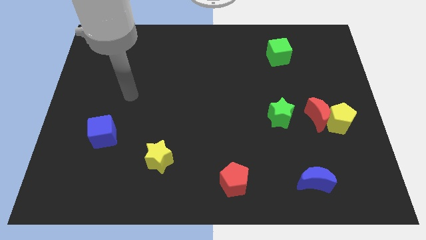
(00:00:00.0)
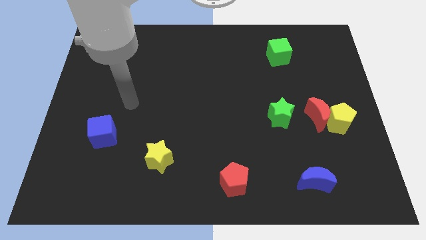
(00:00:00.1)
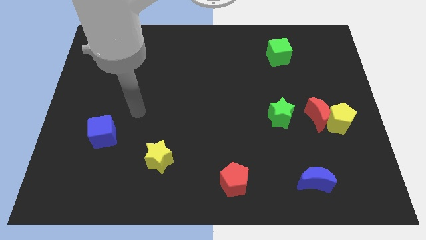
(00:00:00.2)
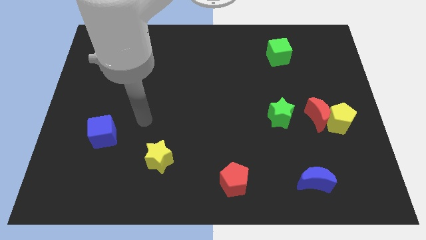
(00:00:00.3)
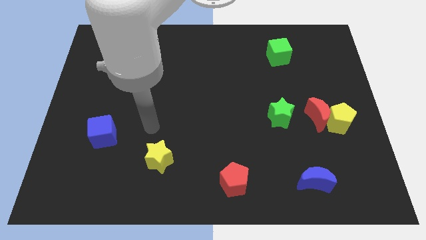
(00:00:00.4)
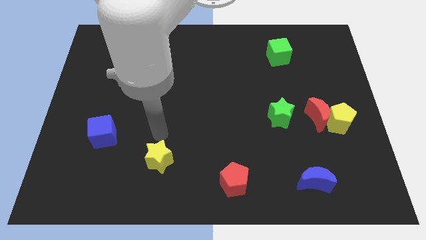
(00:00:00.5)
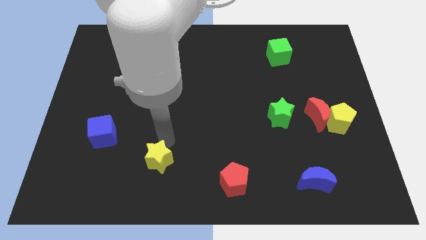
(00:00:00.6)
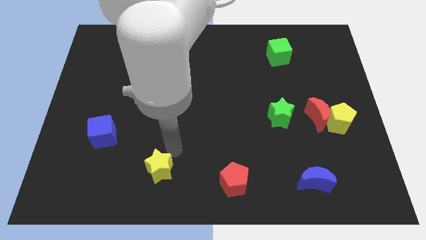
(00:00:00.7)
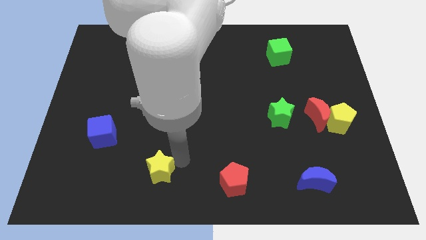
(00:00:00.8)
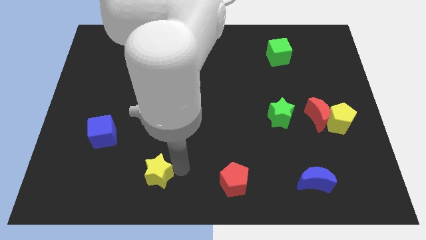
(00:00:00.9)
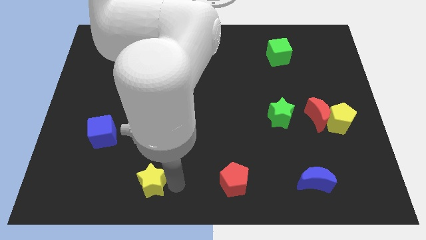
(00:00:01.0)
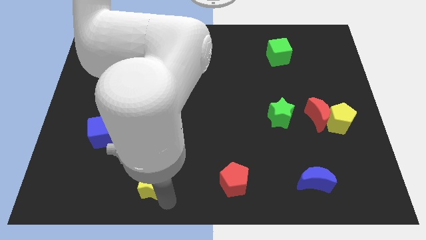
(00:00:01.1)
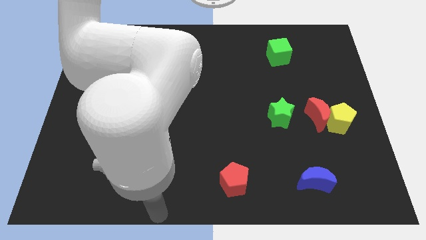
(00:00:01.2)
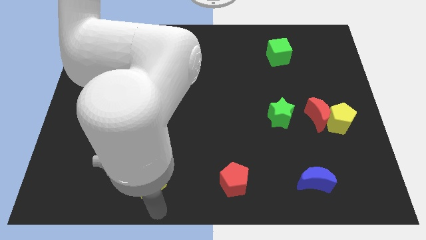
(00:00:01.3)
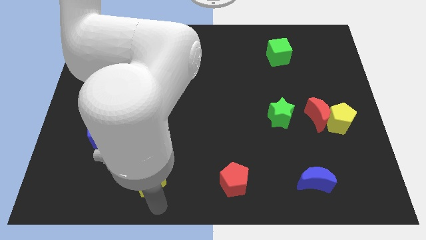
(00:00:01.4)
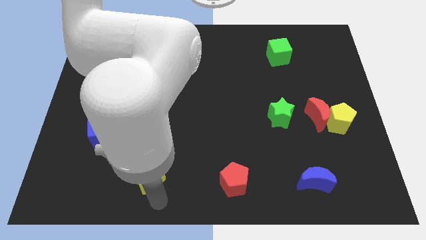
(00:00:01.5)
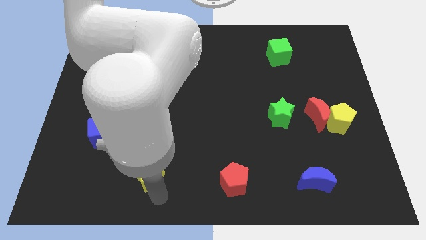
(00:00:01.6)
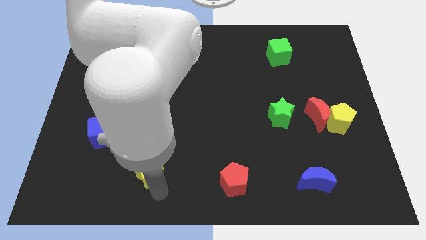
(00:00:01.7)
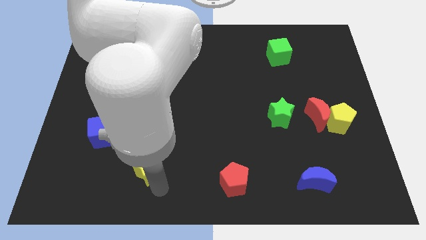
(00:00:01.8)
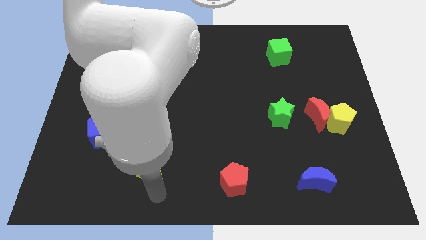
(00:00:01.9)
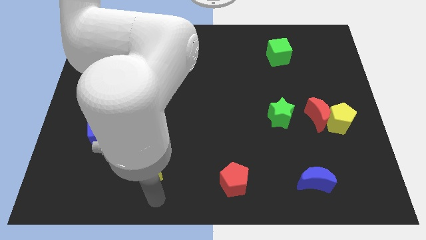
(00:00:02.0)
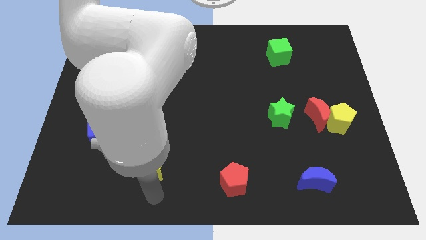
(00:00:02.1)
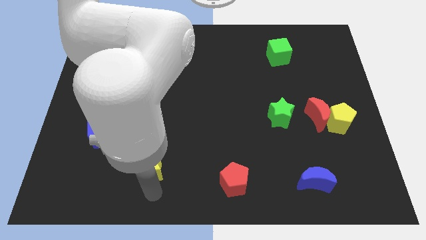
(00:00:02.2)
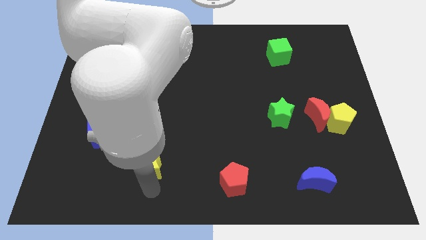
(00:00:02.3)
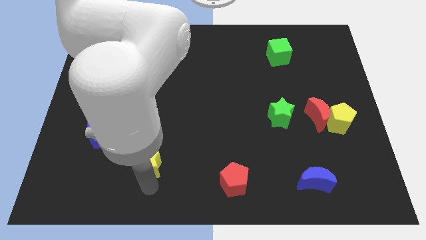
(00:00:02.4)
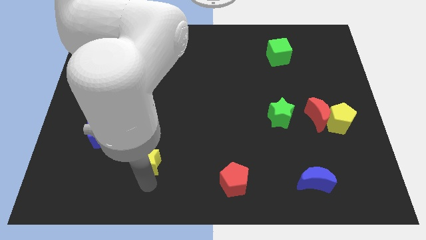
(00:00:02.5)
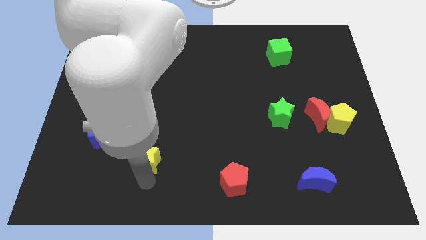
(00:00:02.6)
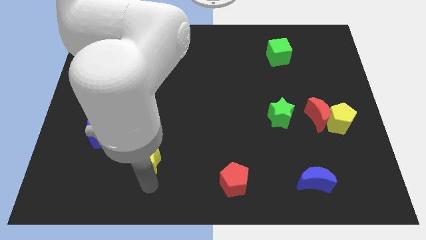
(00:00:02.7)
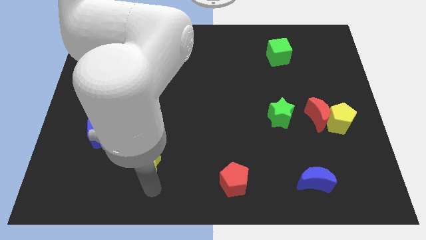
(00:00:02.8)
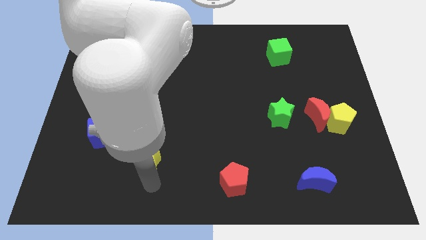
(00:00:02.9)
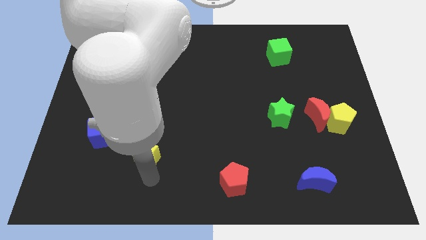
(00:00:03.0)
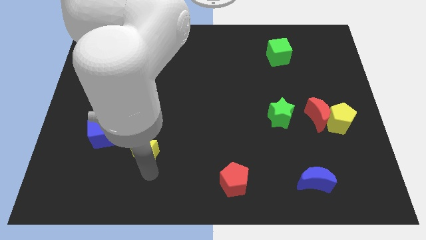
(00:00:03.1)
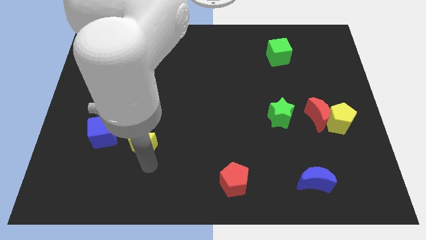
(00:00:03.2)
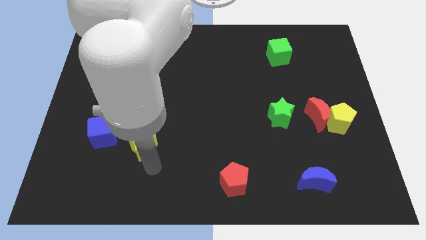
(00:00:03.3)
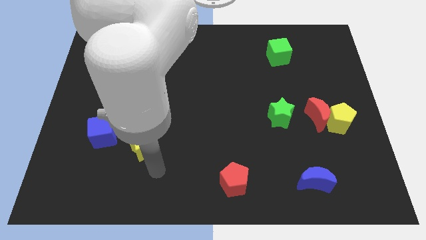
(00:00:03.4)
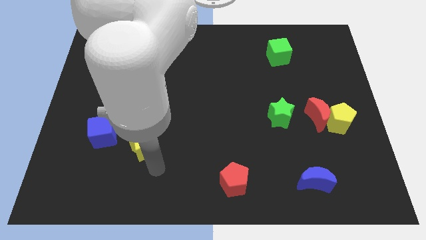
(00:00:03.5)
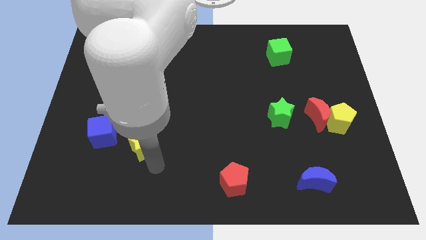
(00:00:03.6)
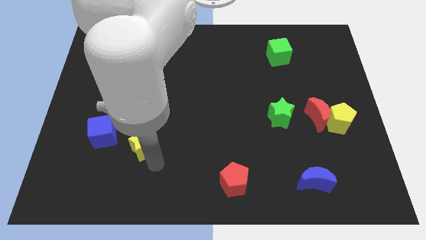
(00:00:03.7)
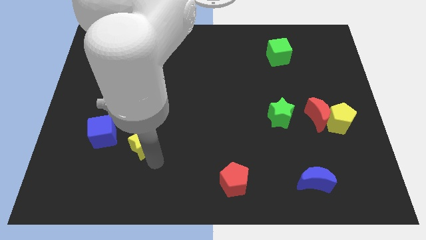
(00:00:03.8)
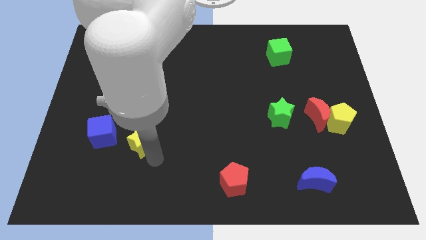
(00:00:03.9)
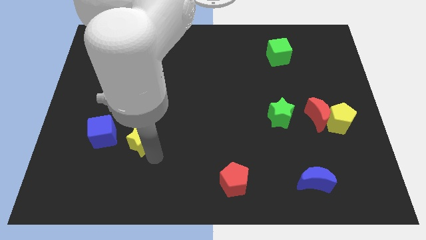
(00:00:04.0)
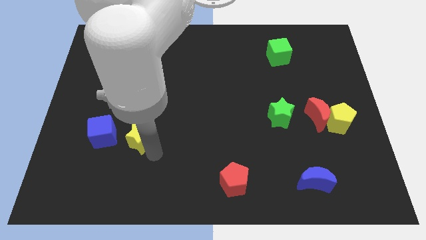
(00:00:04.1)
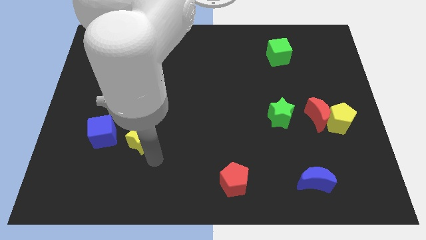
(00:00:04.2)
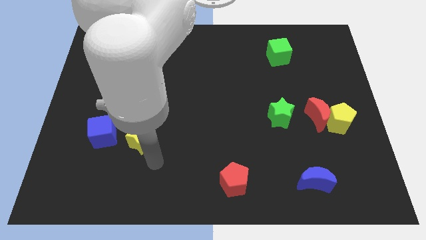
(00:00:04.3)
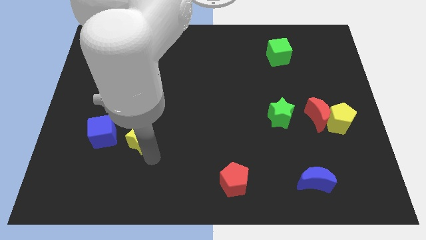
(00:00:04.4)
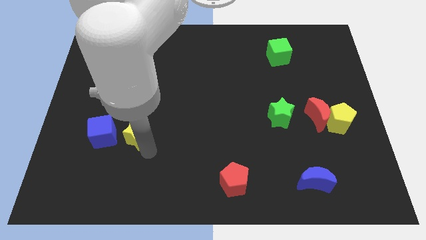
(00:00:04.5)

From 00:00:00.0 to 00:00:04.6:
push the yellow star a little bit diagonally up and left

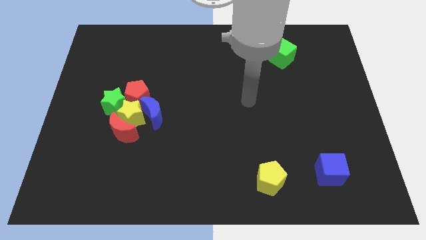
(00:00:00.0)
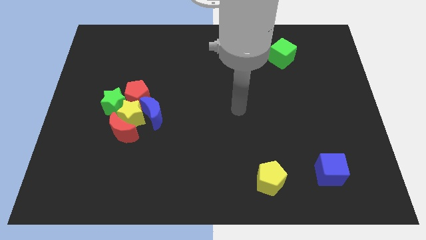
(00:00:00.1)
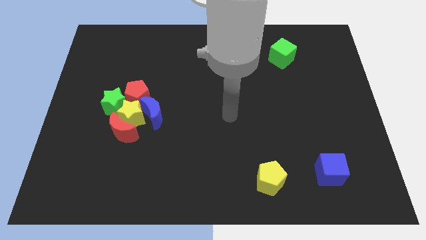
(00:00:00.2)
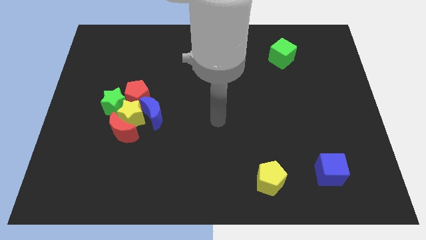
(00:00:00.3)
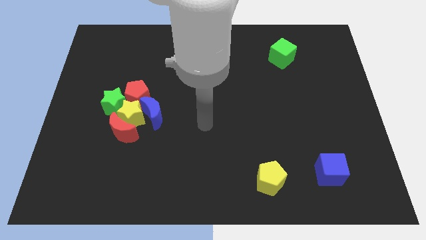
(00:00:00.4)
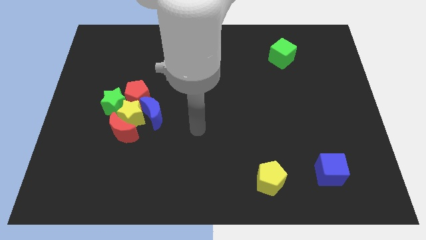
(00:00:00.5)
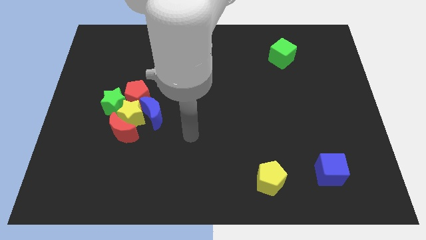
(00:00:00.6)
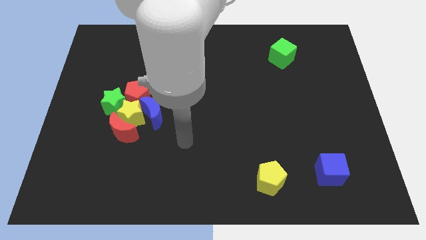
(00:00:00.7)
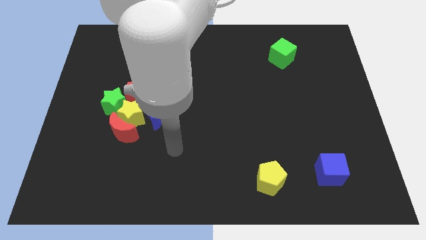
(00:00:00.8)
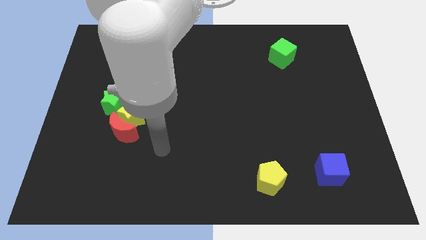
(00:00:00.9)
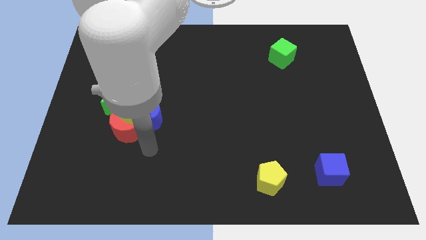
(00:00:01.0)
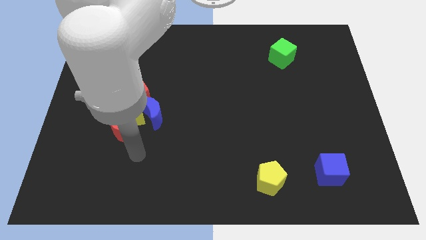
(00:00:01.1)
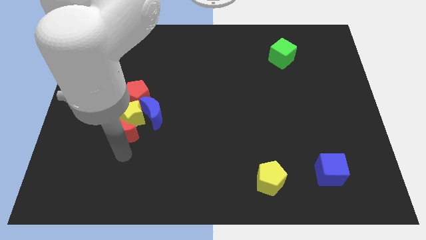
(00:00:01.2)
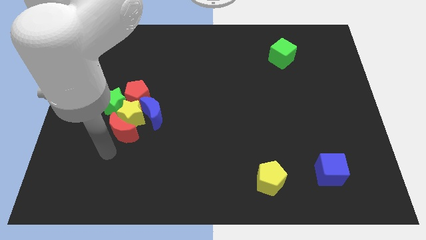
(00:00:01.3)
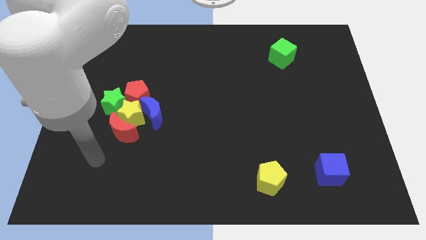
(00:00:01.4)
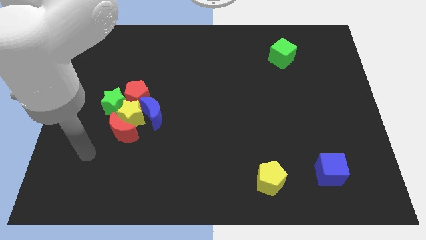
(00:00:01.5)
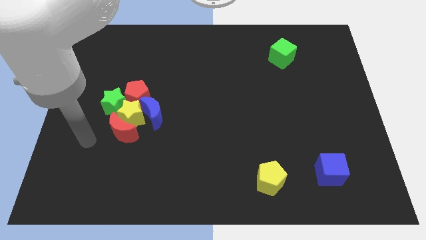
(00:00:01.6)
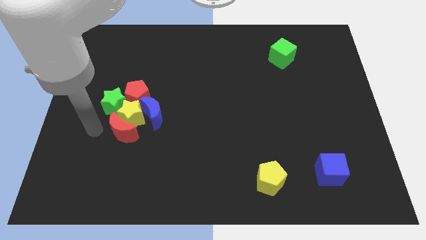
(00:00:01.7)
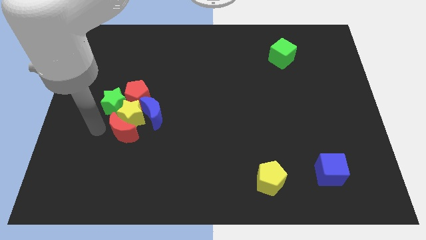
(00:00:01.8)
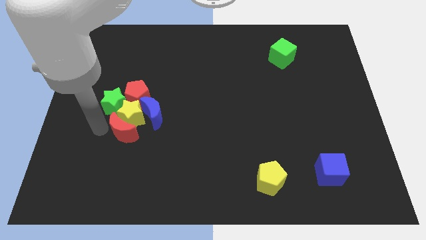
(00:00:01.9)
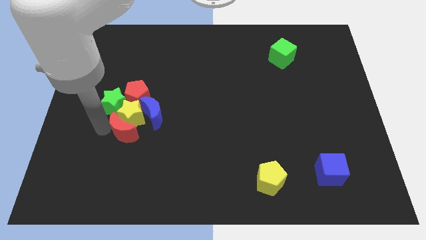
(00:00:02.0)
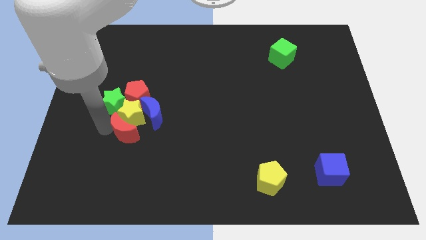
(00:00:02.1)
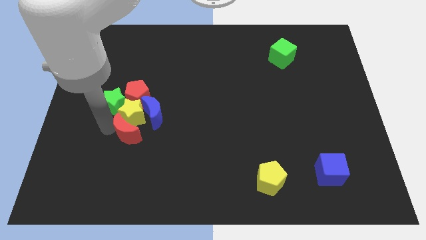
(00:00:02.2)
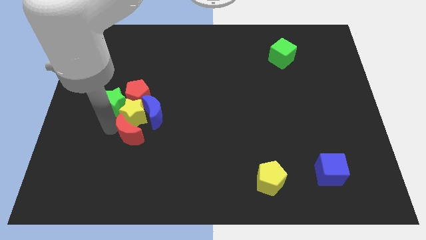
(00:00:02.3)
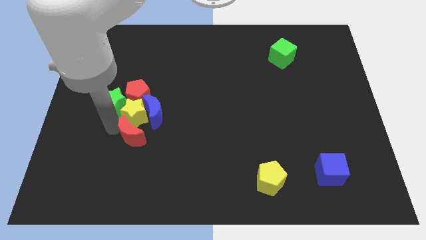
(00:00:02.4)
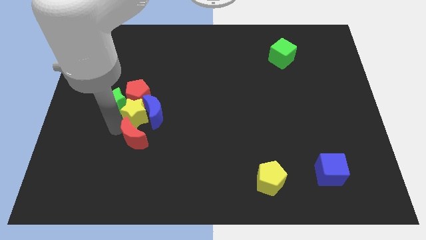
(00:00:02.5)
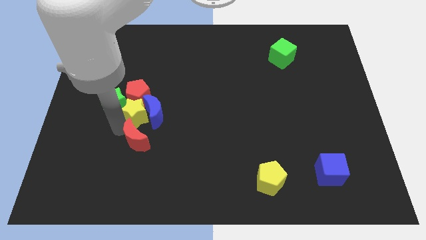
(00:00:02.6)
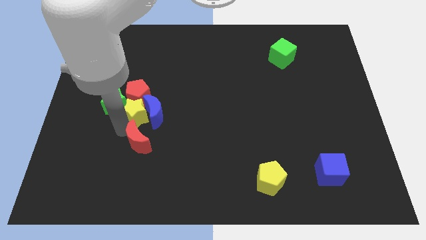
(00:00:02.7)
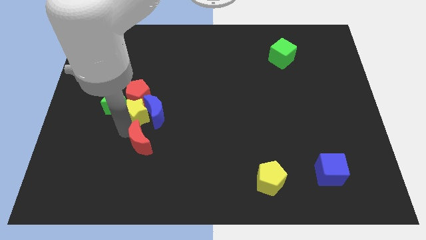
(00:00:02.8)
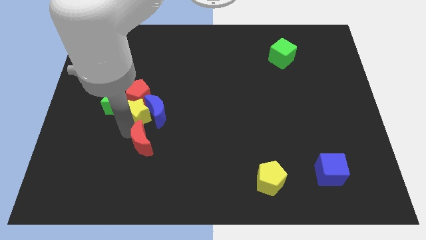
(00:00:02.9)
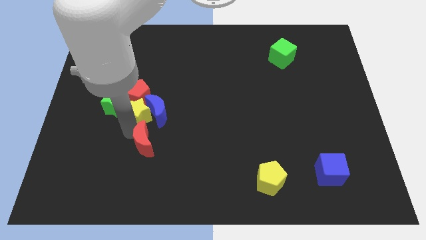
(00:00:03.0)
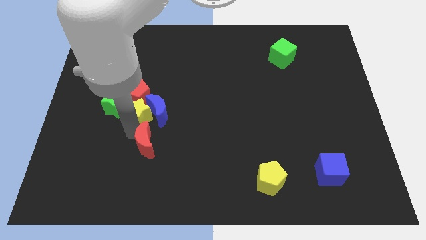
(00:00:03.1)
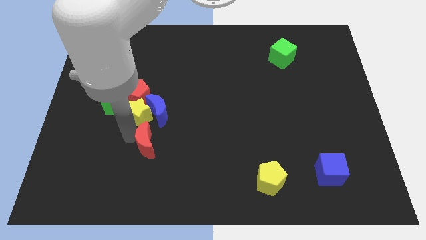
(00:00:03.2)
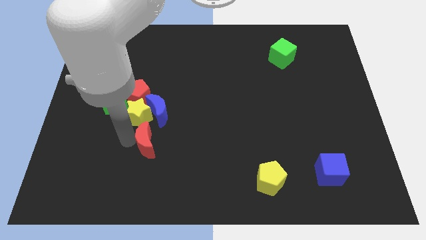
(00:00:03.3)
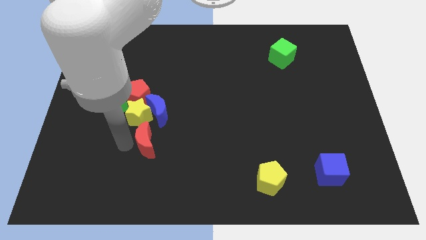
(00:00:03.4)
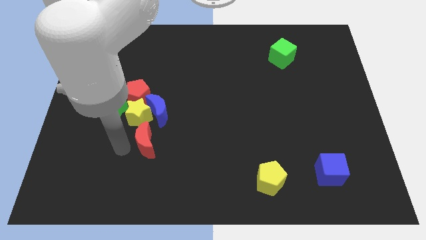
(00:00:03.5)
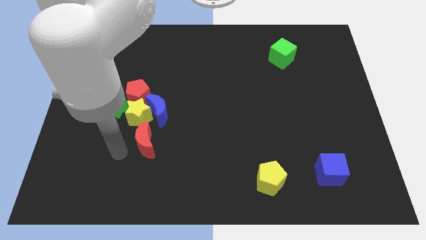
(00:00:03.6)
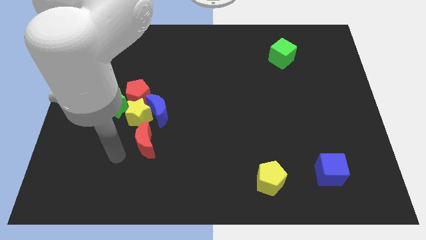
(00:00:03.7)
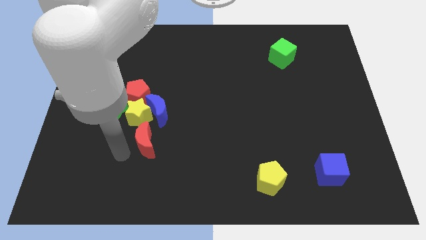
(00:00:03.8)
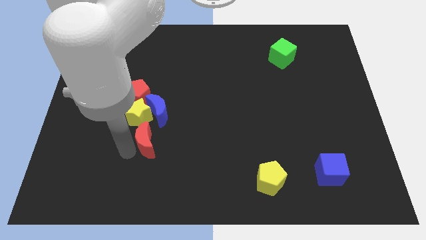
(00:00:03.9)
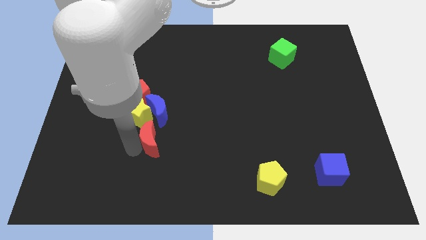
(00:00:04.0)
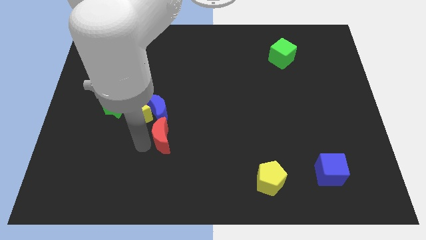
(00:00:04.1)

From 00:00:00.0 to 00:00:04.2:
slightly slide the red moon right
